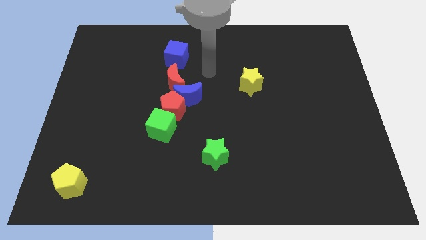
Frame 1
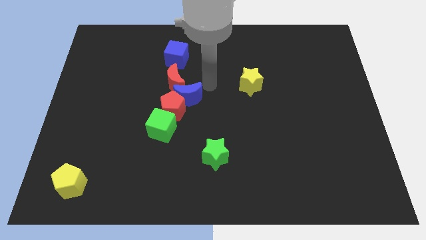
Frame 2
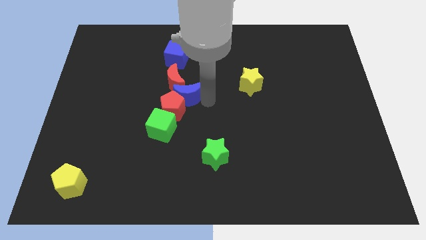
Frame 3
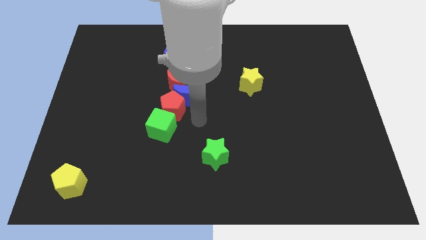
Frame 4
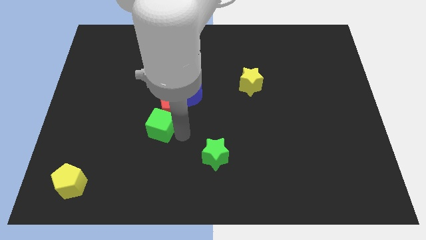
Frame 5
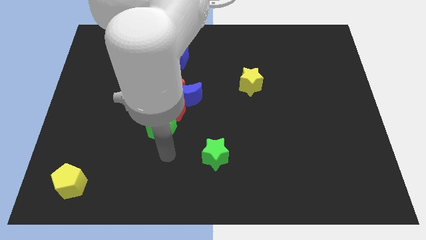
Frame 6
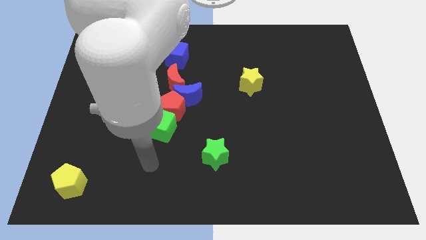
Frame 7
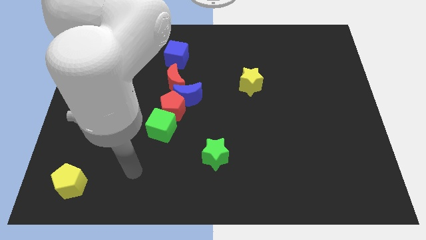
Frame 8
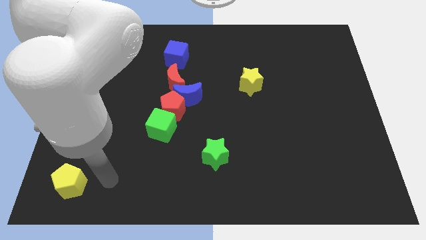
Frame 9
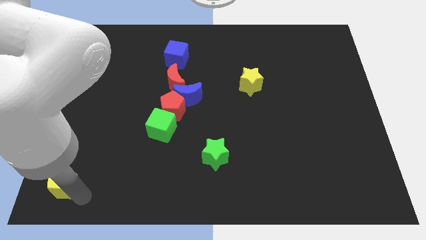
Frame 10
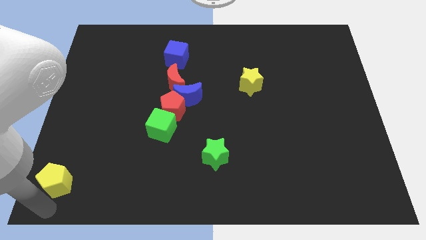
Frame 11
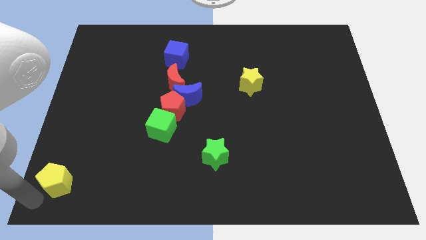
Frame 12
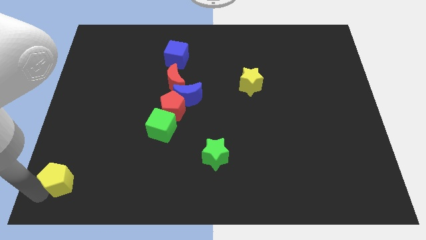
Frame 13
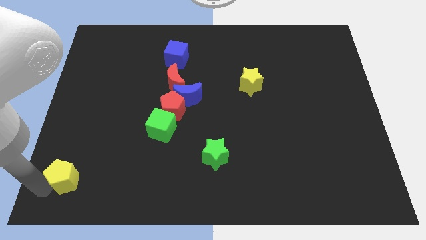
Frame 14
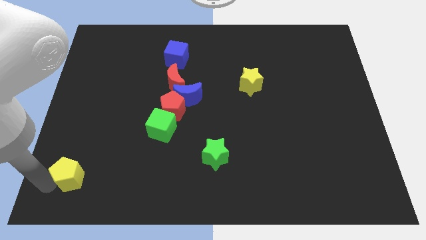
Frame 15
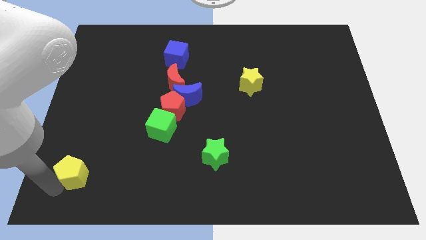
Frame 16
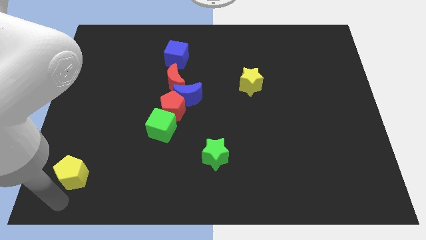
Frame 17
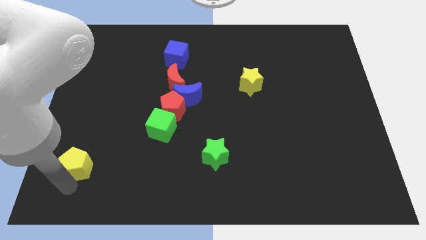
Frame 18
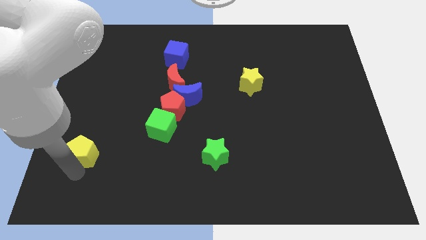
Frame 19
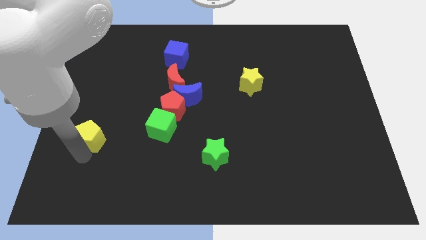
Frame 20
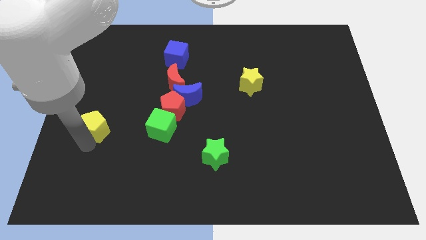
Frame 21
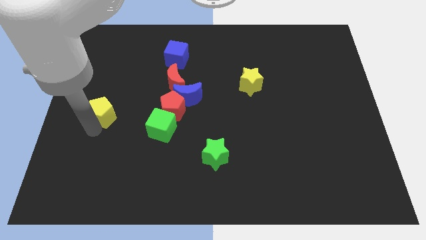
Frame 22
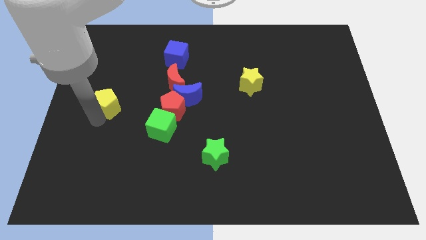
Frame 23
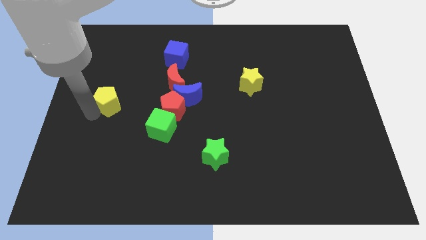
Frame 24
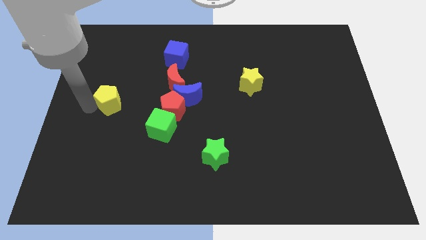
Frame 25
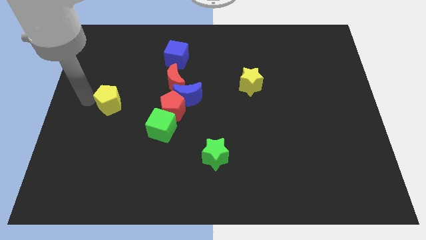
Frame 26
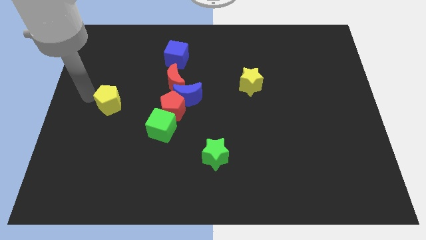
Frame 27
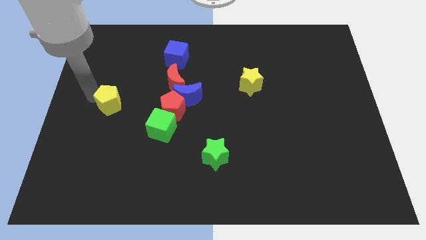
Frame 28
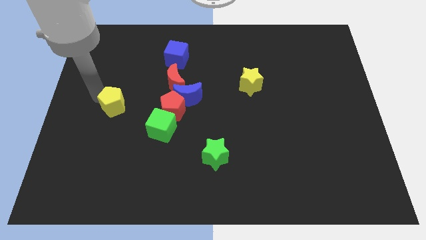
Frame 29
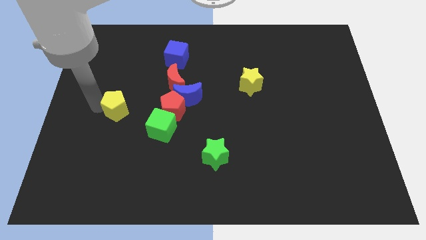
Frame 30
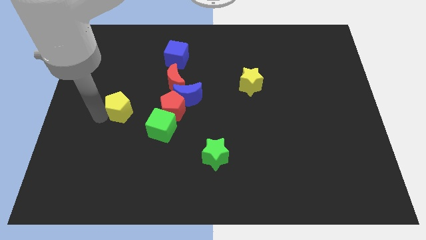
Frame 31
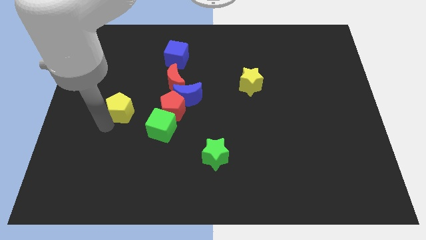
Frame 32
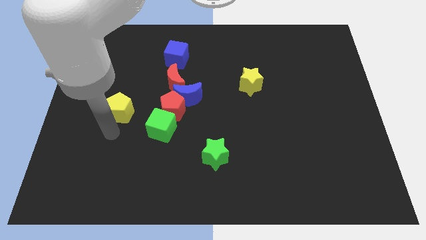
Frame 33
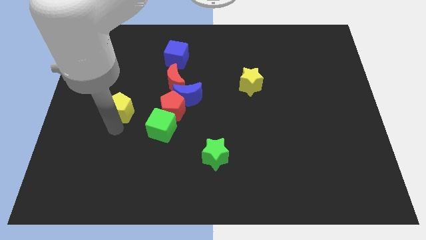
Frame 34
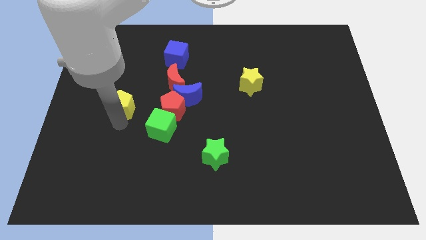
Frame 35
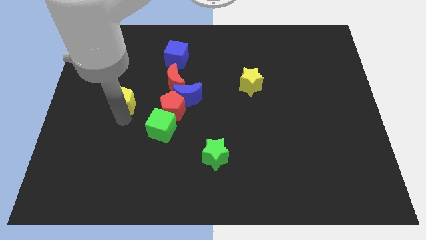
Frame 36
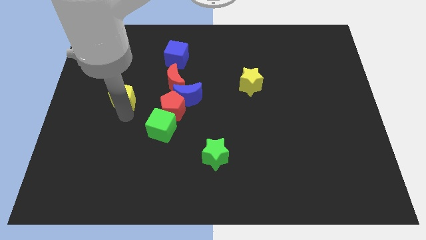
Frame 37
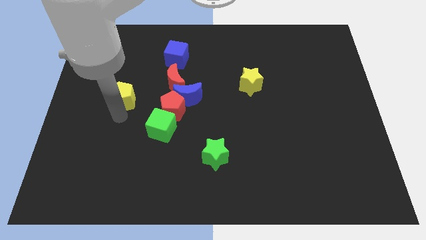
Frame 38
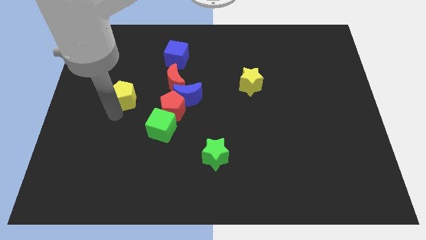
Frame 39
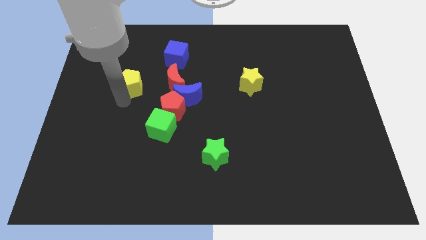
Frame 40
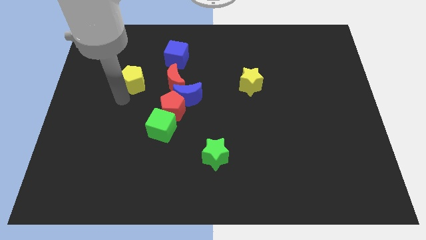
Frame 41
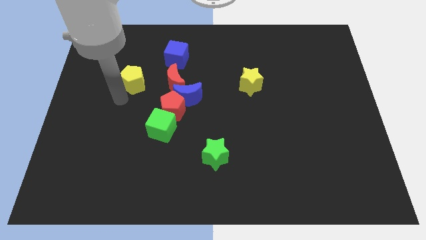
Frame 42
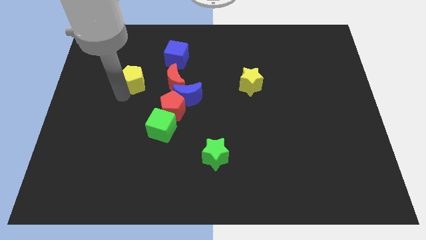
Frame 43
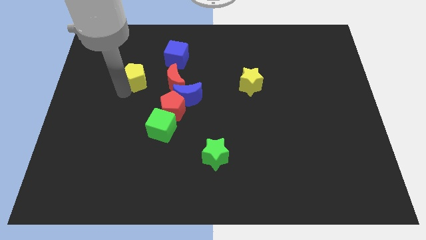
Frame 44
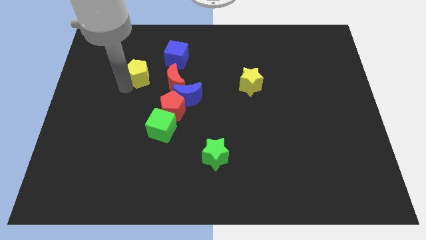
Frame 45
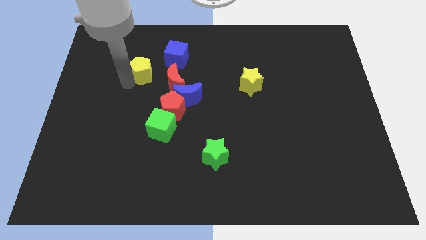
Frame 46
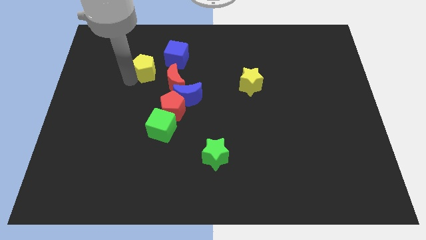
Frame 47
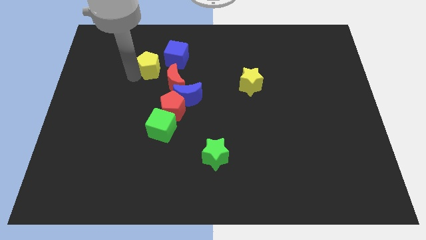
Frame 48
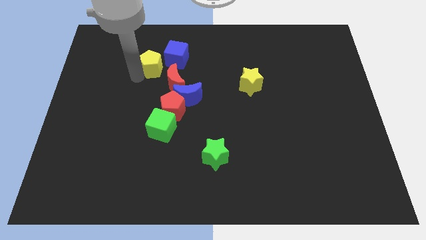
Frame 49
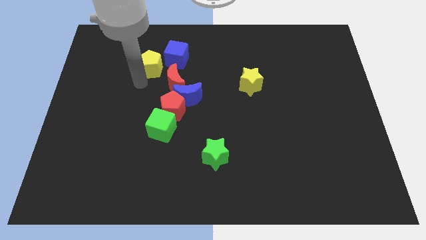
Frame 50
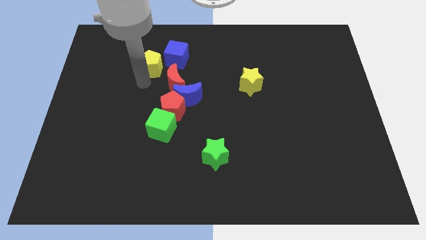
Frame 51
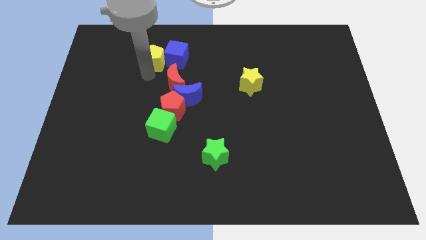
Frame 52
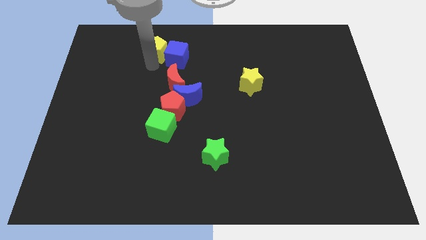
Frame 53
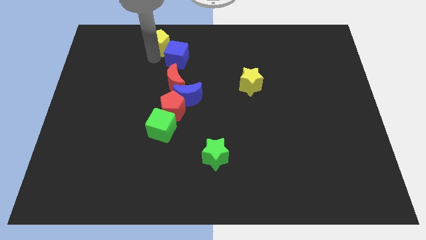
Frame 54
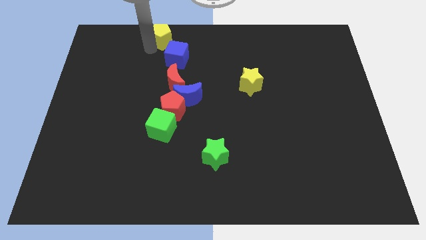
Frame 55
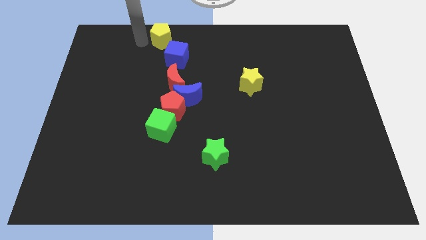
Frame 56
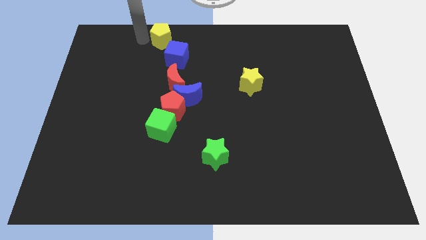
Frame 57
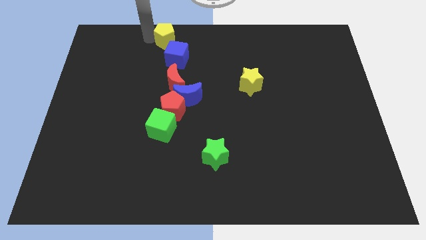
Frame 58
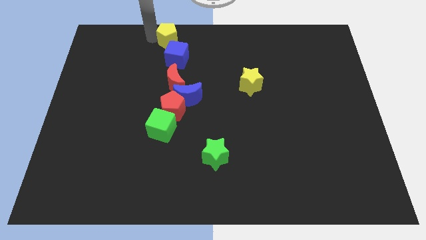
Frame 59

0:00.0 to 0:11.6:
slide the yellow pentagon to the top side
